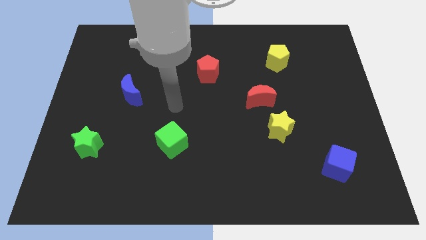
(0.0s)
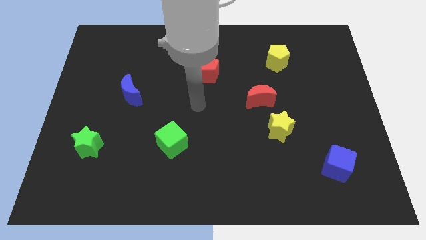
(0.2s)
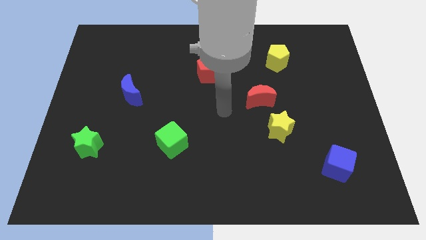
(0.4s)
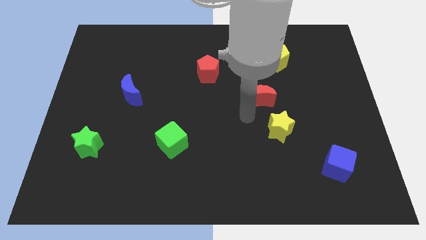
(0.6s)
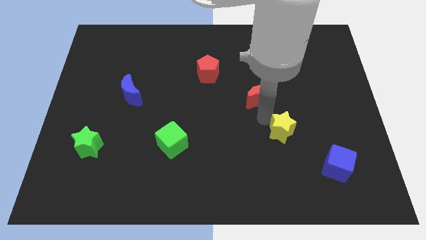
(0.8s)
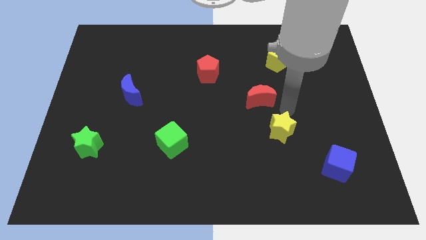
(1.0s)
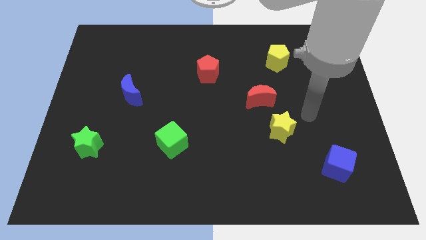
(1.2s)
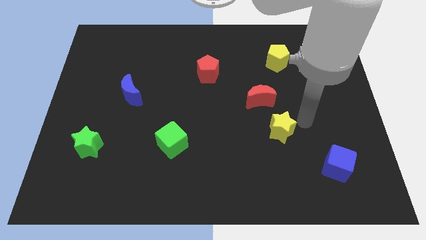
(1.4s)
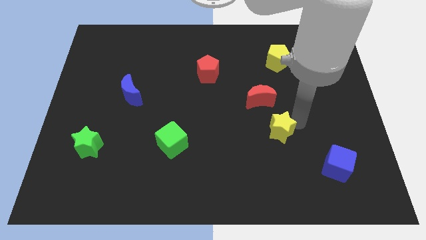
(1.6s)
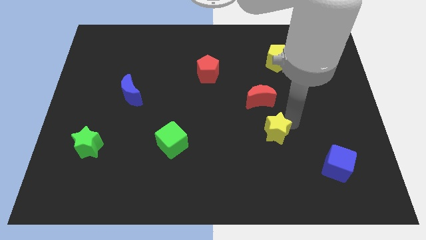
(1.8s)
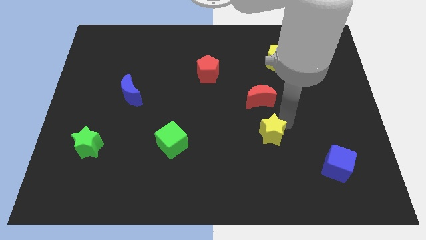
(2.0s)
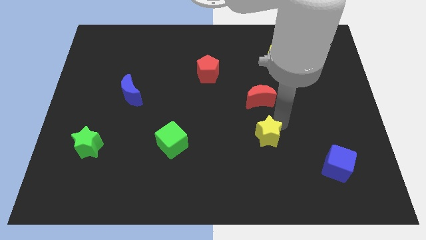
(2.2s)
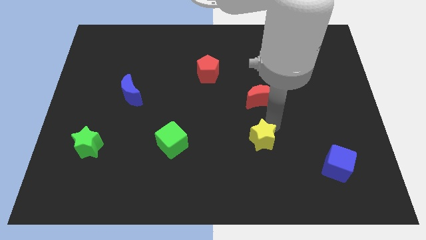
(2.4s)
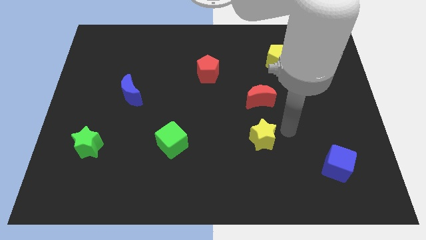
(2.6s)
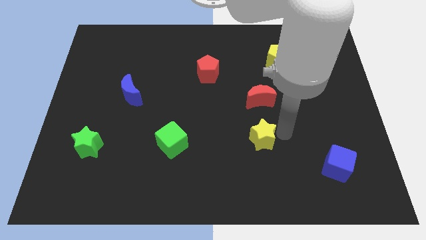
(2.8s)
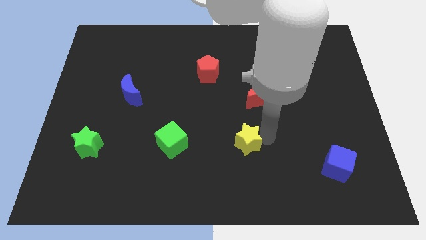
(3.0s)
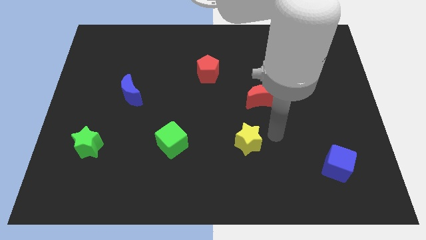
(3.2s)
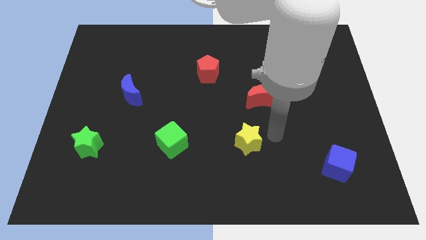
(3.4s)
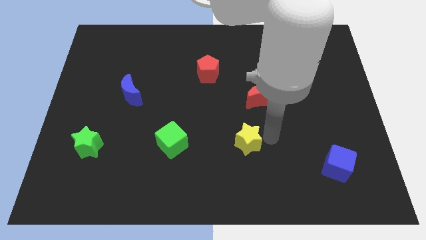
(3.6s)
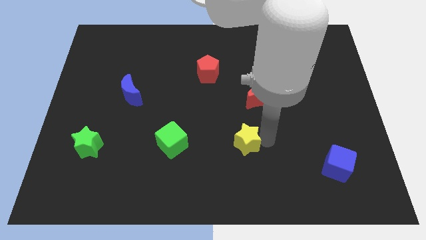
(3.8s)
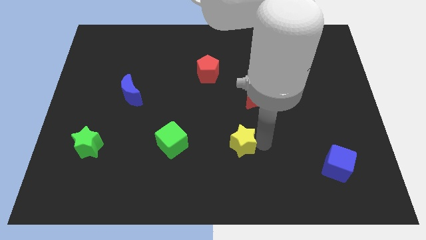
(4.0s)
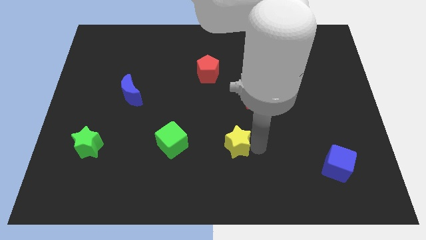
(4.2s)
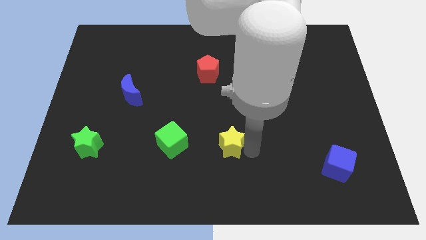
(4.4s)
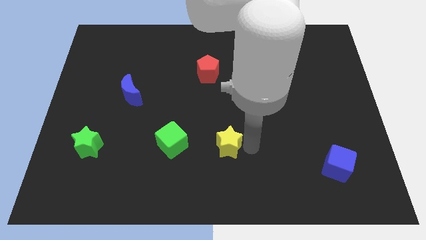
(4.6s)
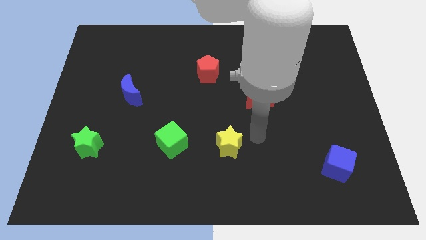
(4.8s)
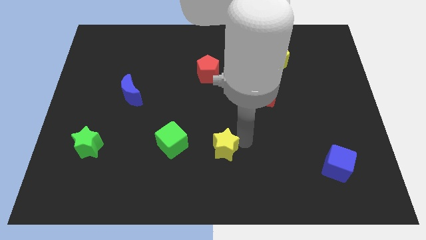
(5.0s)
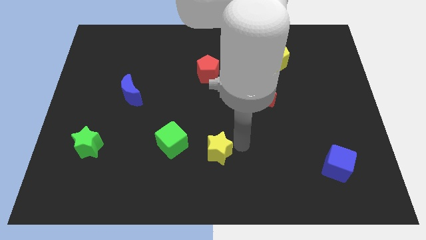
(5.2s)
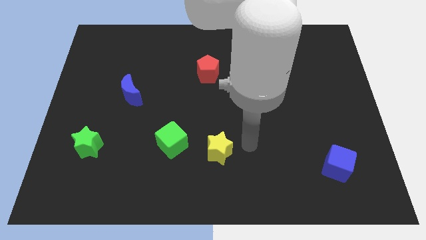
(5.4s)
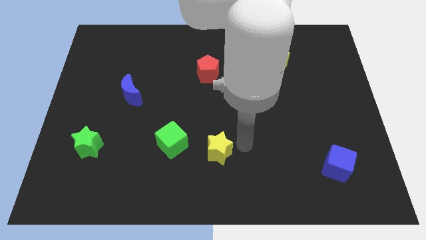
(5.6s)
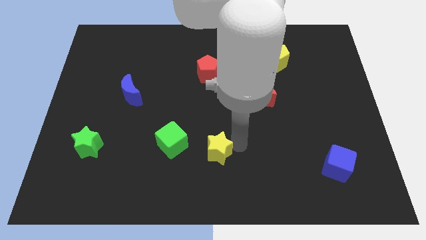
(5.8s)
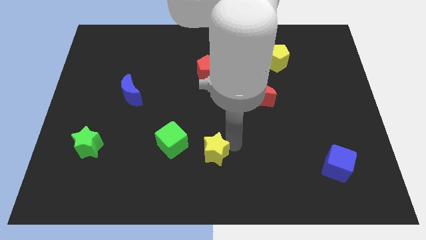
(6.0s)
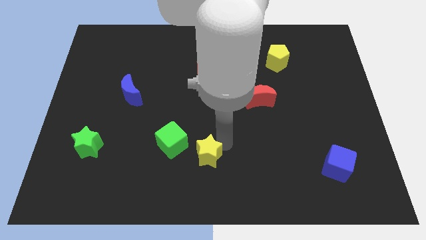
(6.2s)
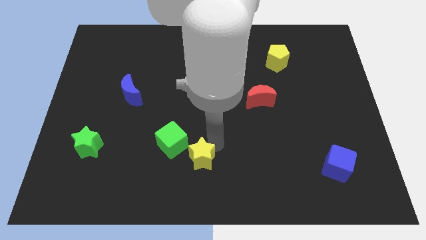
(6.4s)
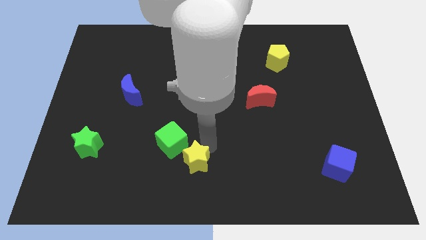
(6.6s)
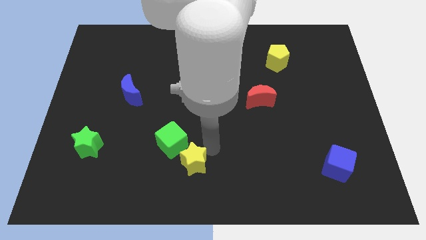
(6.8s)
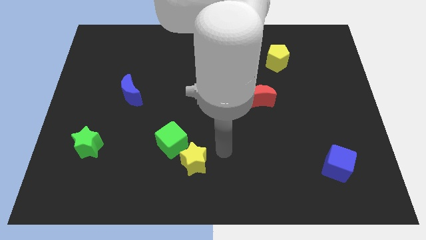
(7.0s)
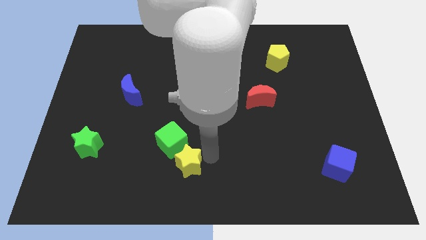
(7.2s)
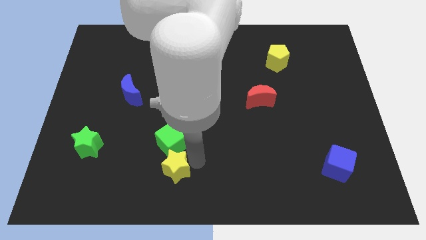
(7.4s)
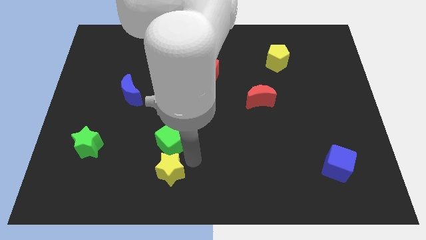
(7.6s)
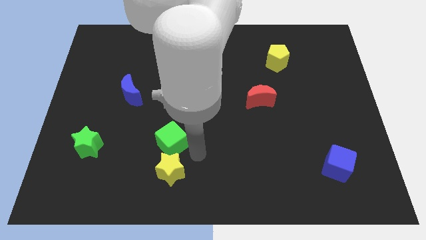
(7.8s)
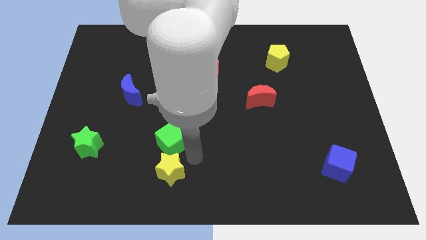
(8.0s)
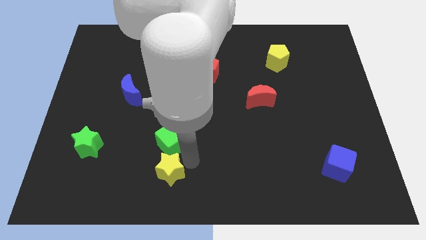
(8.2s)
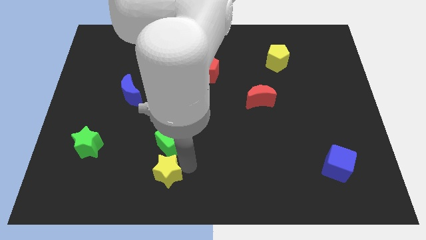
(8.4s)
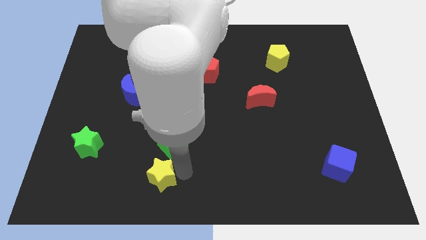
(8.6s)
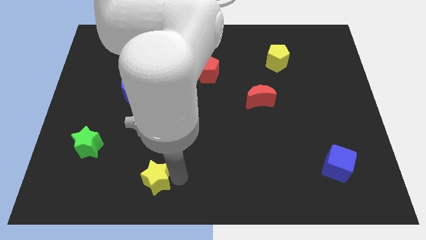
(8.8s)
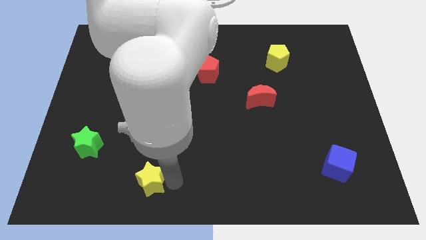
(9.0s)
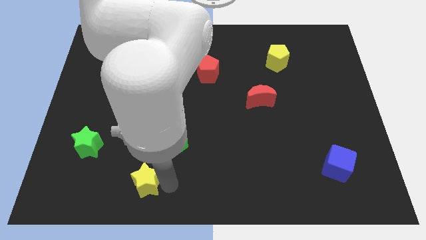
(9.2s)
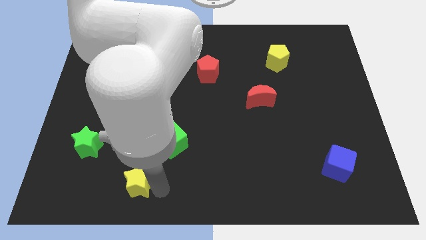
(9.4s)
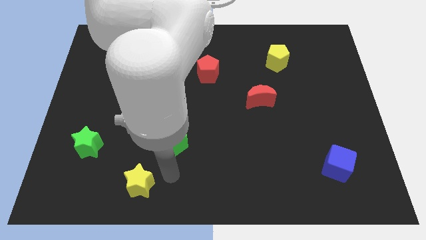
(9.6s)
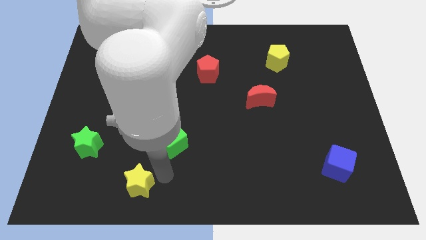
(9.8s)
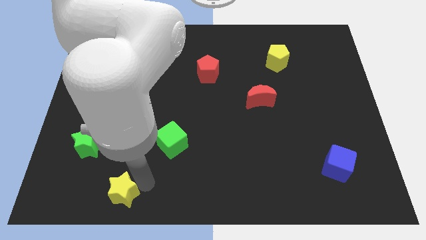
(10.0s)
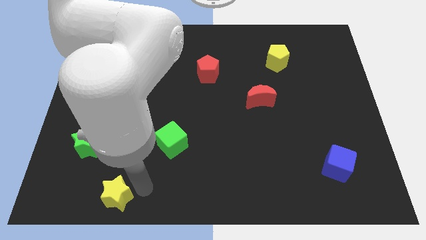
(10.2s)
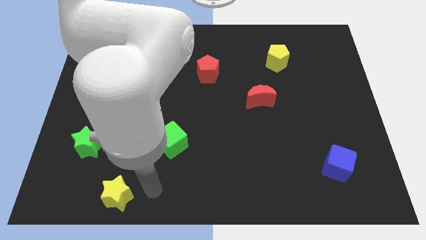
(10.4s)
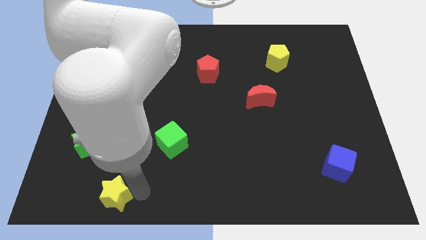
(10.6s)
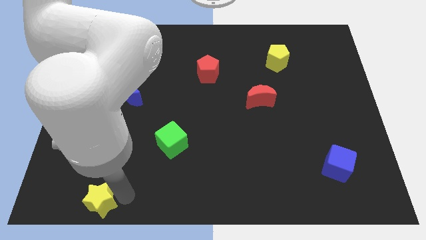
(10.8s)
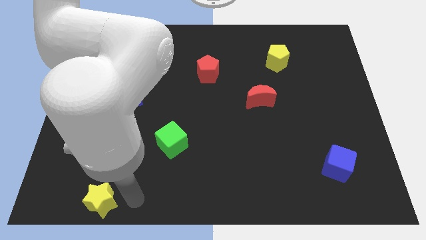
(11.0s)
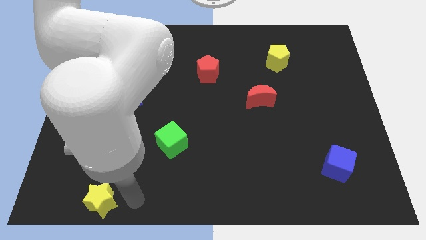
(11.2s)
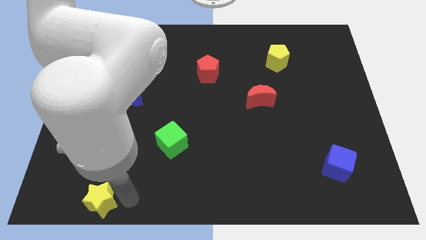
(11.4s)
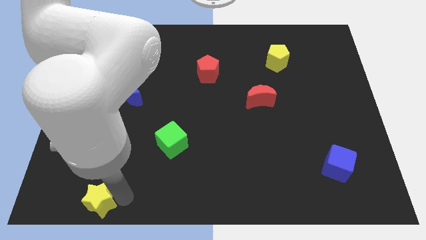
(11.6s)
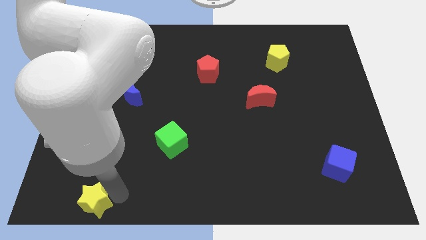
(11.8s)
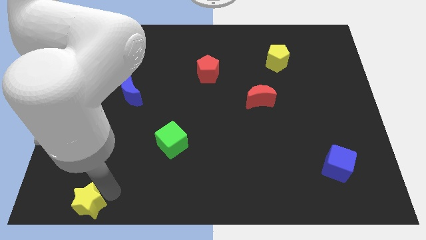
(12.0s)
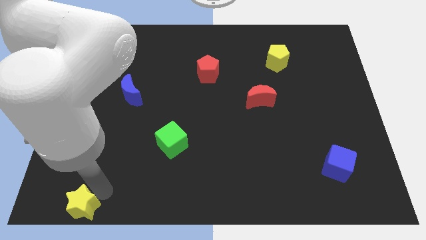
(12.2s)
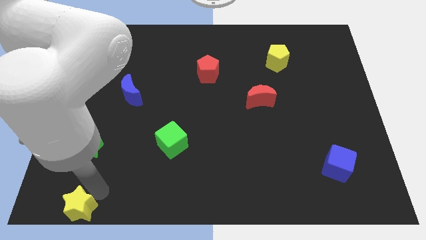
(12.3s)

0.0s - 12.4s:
push the yellow star to the lower left corner

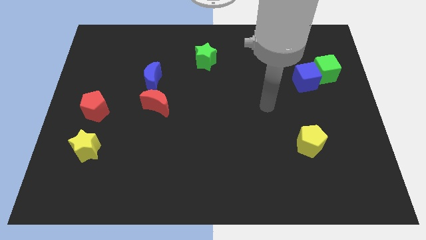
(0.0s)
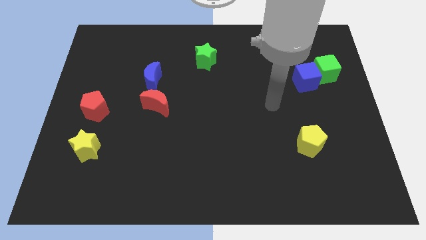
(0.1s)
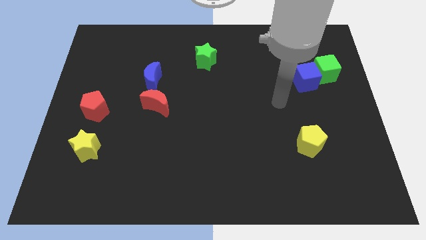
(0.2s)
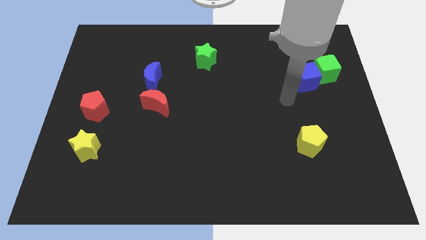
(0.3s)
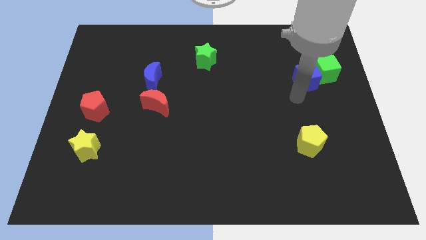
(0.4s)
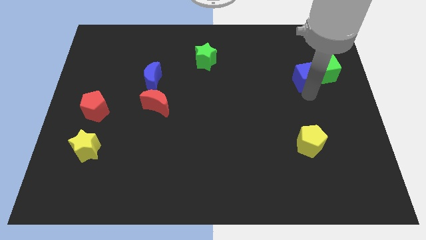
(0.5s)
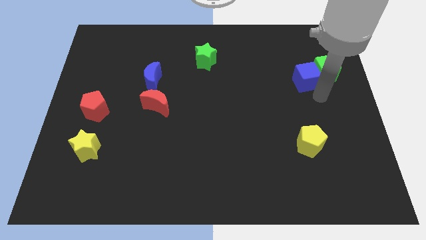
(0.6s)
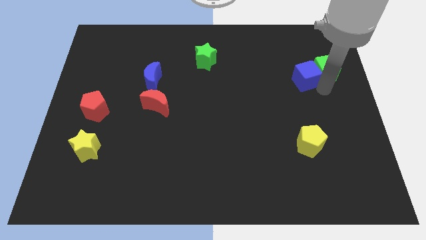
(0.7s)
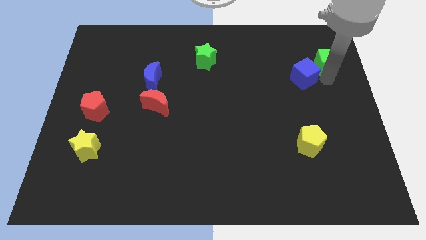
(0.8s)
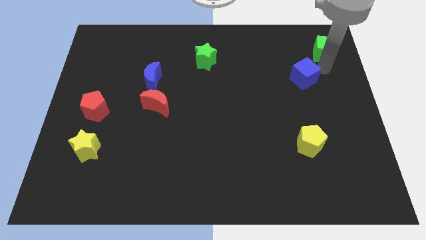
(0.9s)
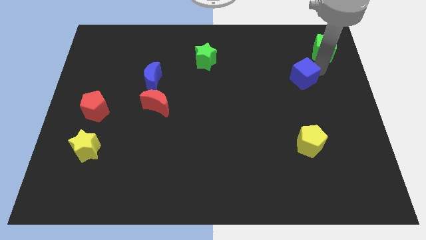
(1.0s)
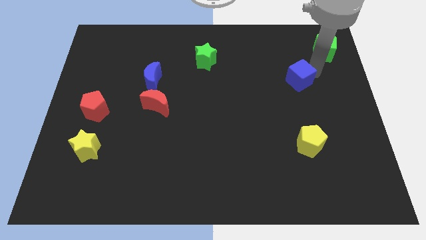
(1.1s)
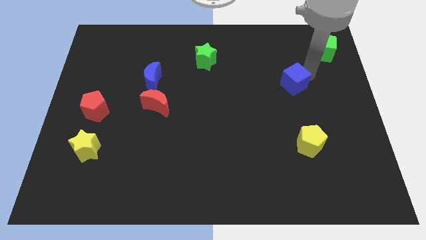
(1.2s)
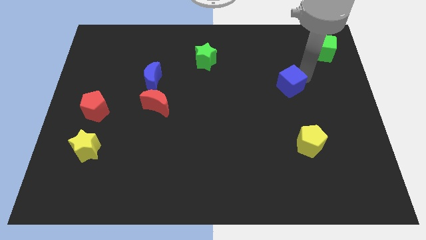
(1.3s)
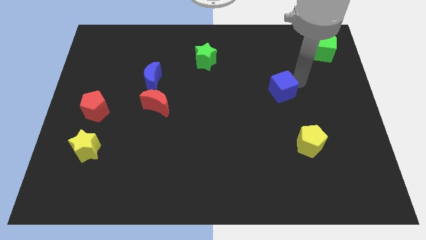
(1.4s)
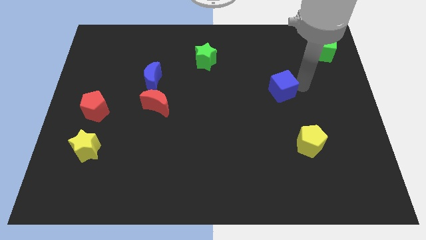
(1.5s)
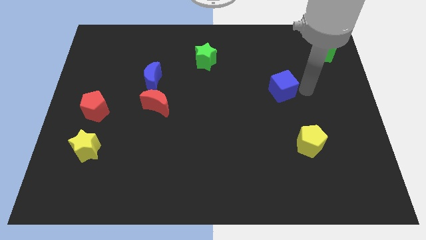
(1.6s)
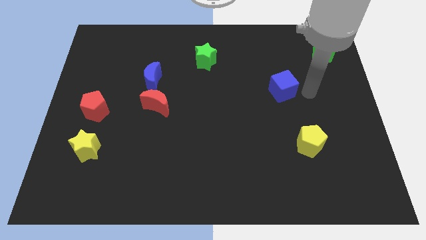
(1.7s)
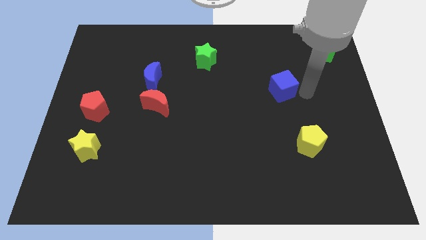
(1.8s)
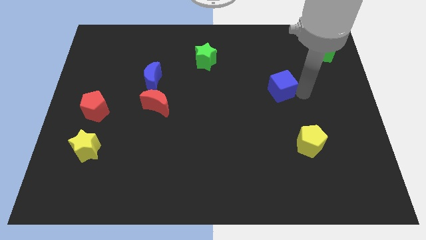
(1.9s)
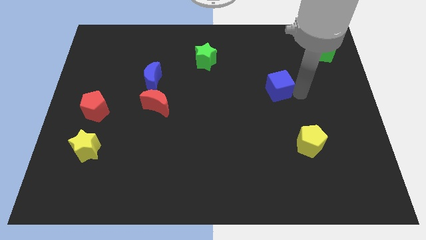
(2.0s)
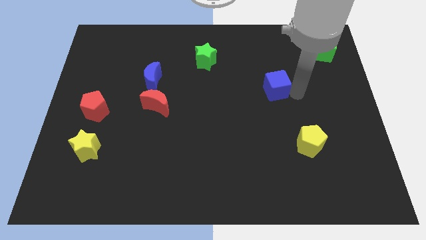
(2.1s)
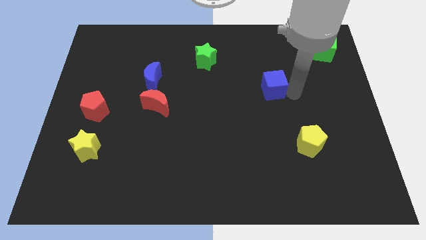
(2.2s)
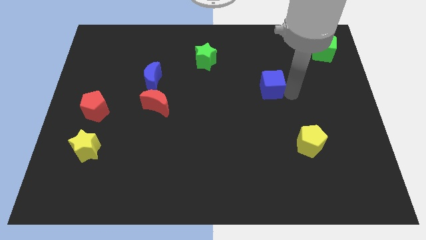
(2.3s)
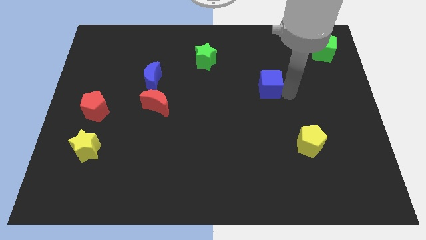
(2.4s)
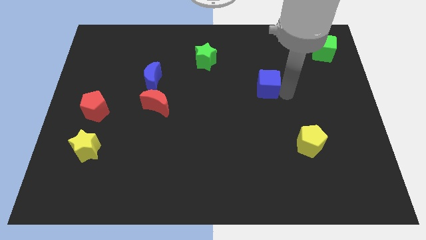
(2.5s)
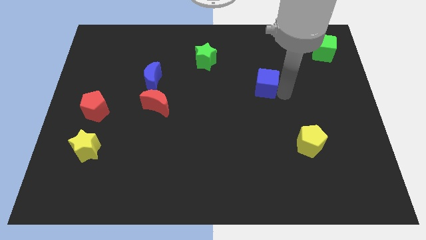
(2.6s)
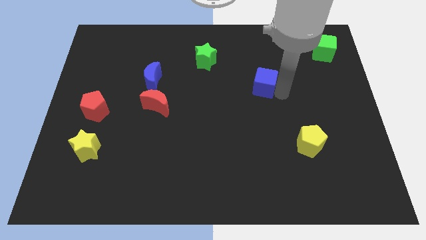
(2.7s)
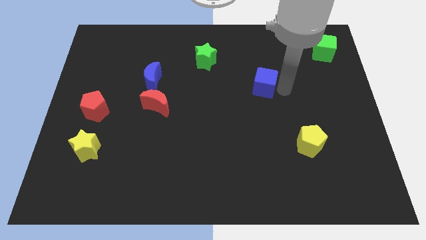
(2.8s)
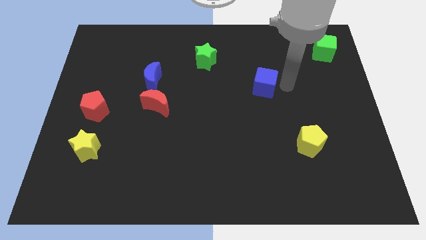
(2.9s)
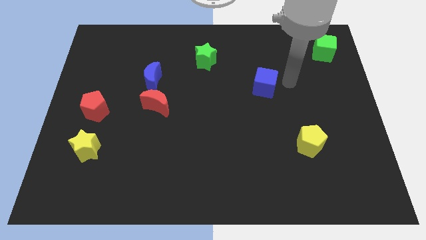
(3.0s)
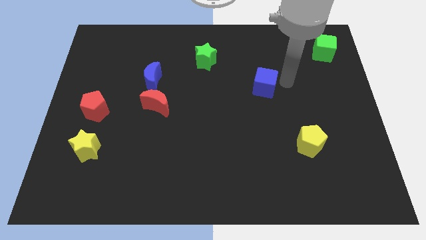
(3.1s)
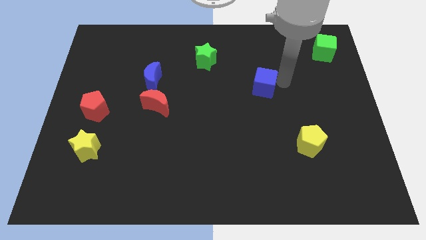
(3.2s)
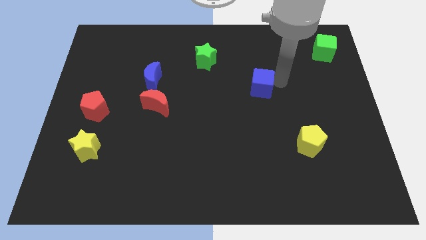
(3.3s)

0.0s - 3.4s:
move the blue cube to the center
